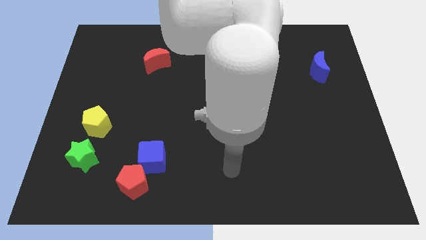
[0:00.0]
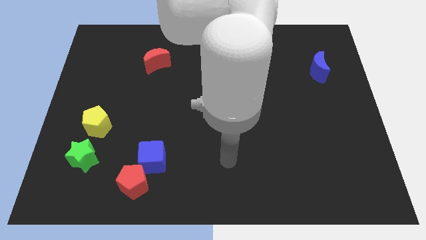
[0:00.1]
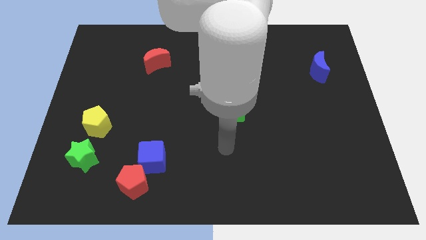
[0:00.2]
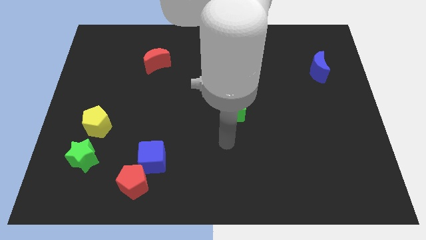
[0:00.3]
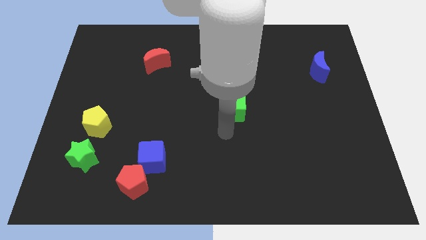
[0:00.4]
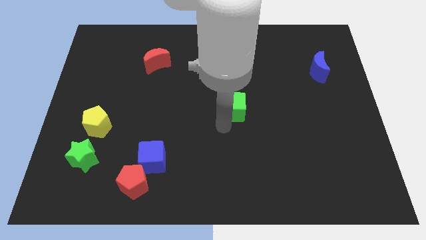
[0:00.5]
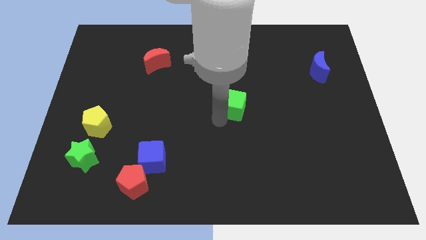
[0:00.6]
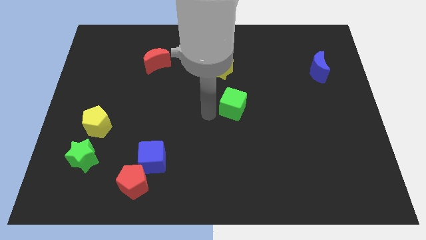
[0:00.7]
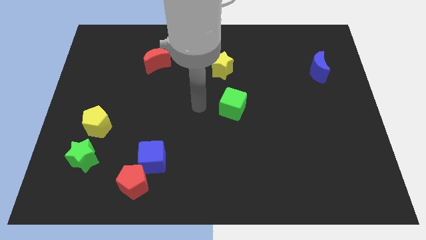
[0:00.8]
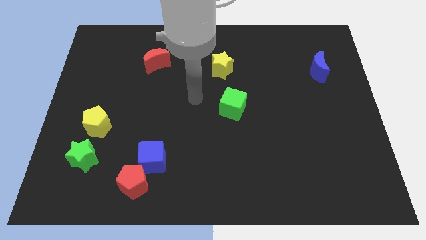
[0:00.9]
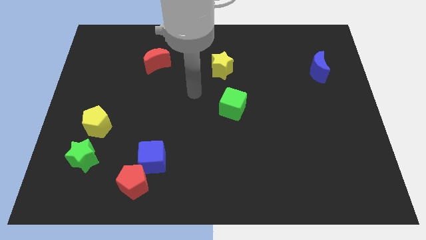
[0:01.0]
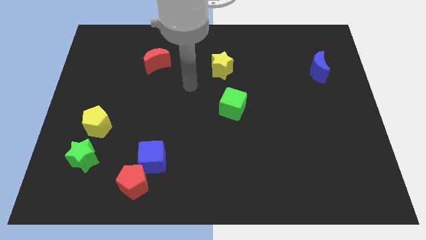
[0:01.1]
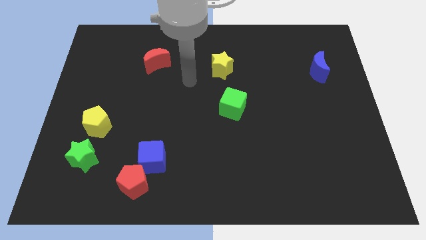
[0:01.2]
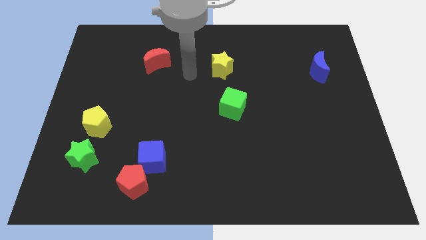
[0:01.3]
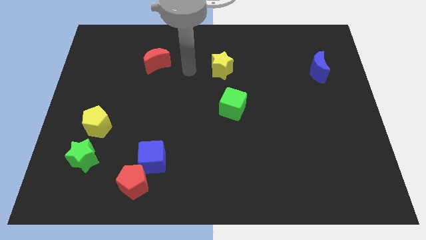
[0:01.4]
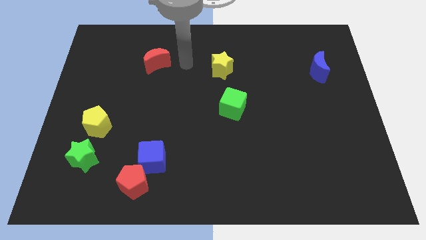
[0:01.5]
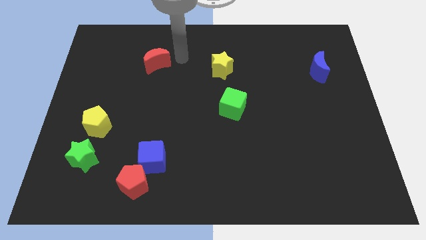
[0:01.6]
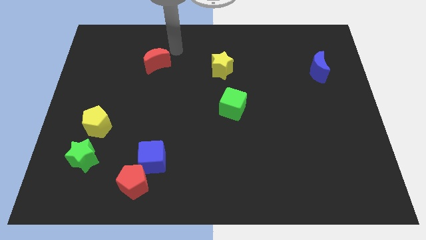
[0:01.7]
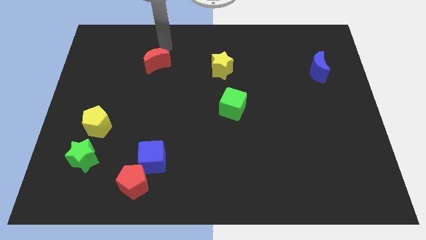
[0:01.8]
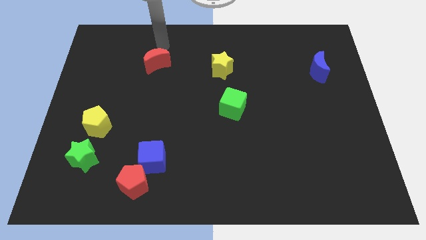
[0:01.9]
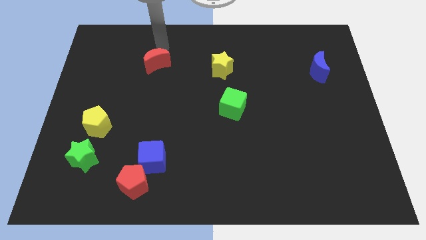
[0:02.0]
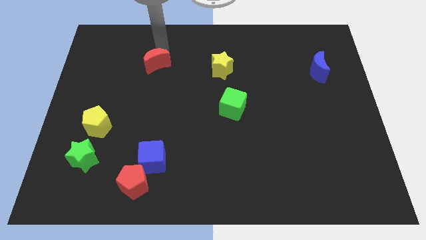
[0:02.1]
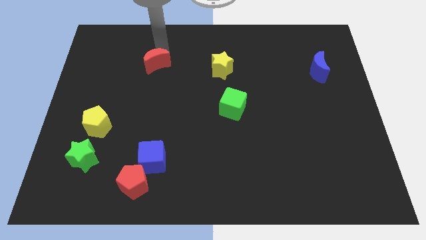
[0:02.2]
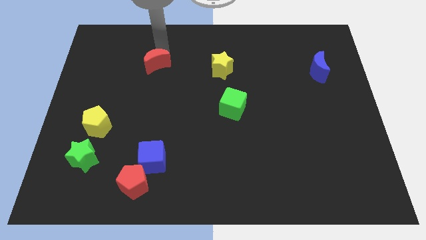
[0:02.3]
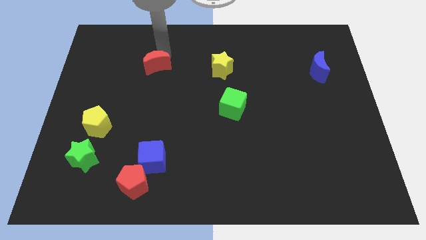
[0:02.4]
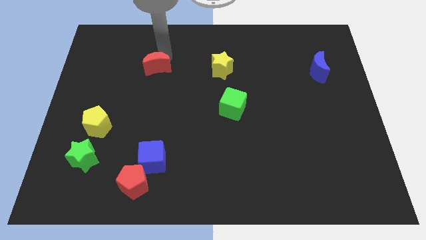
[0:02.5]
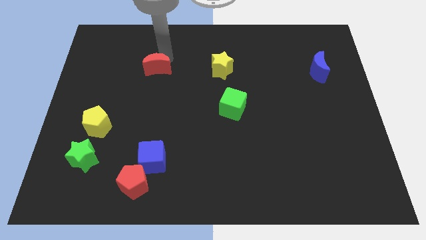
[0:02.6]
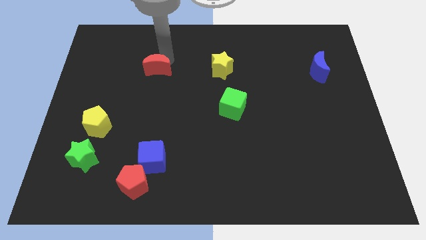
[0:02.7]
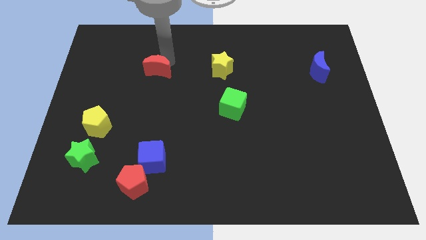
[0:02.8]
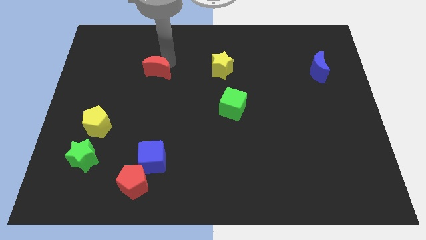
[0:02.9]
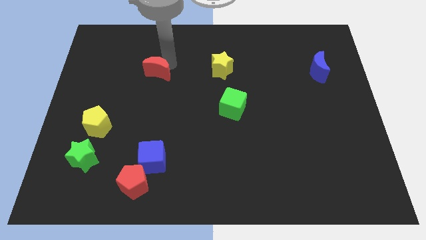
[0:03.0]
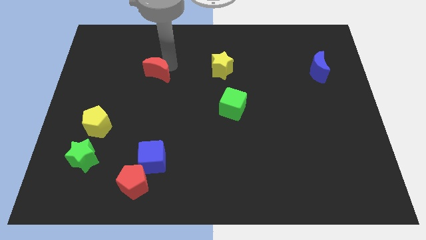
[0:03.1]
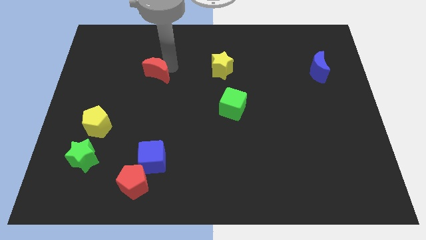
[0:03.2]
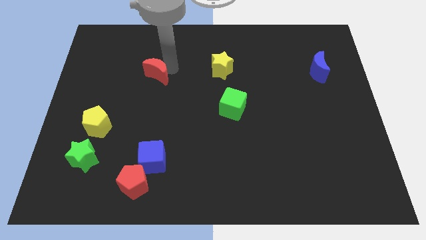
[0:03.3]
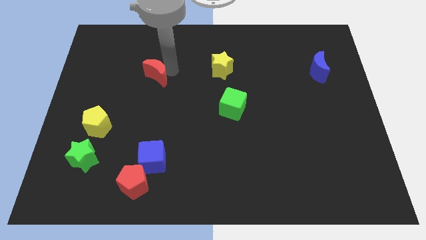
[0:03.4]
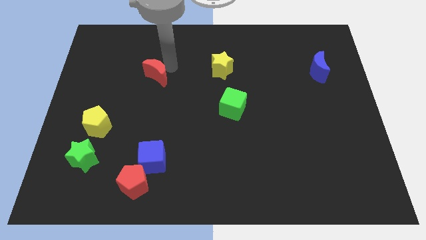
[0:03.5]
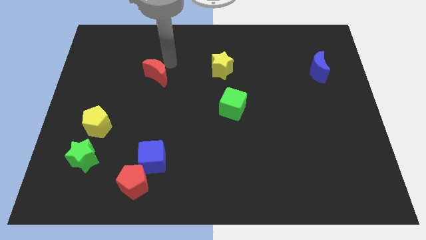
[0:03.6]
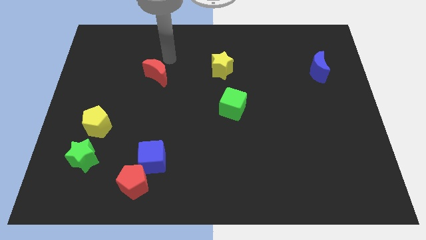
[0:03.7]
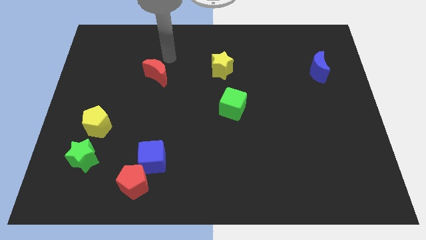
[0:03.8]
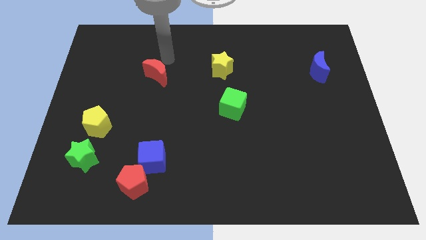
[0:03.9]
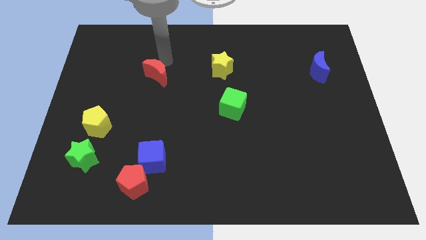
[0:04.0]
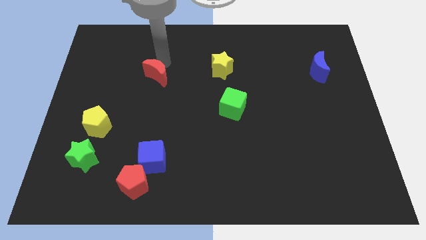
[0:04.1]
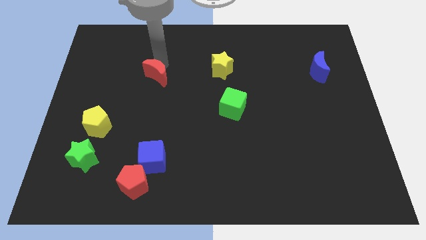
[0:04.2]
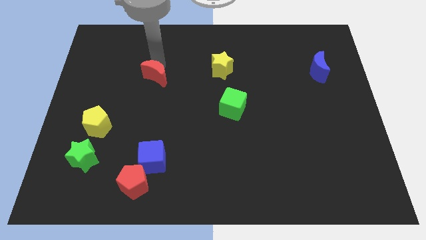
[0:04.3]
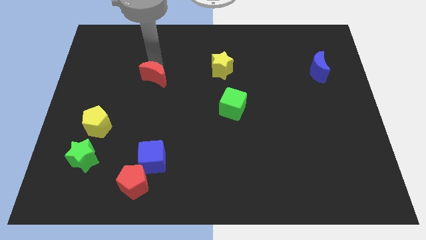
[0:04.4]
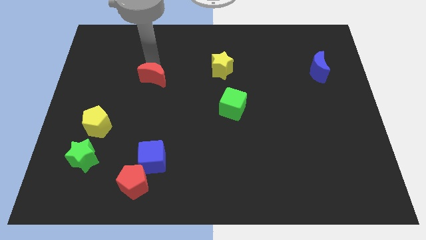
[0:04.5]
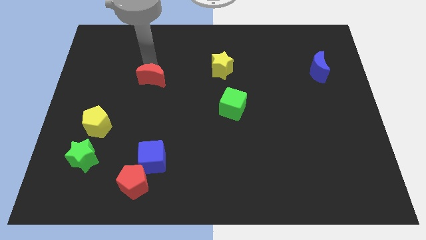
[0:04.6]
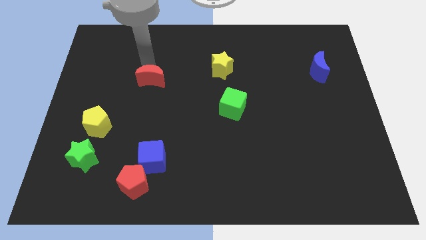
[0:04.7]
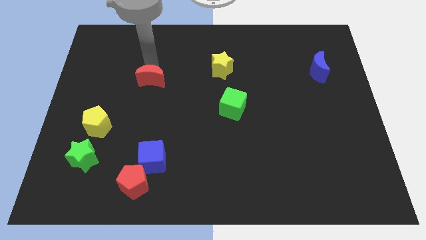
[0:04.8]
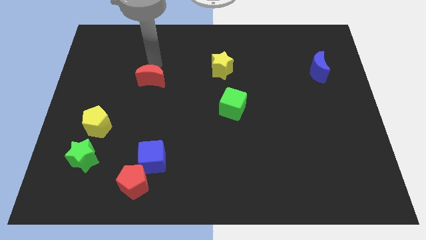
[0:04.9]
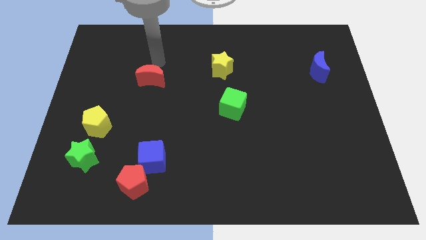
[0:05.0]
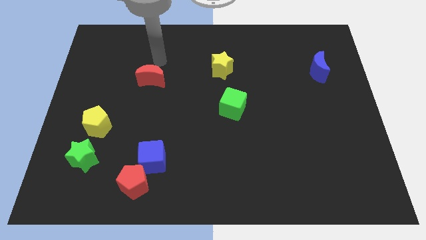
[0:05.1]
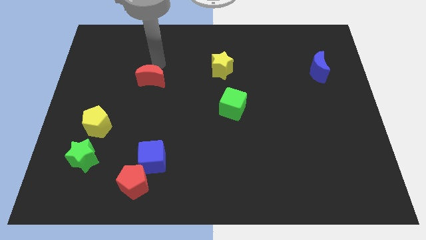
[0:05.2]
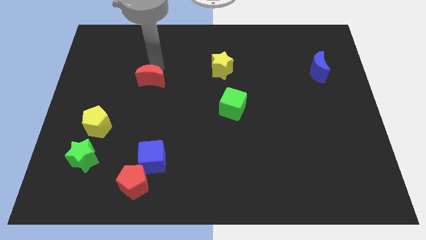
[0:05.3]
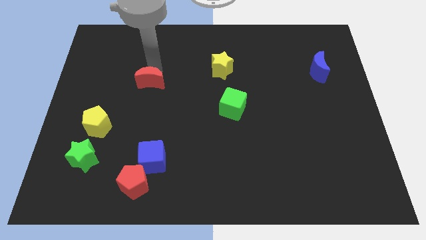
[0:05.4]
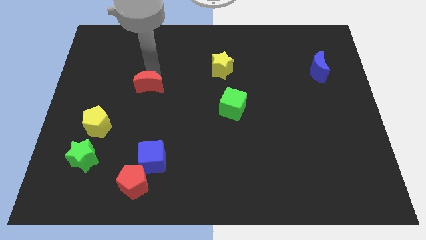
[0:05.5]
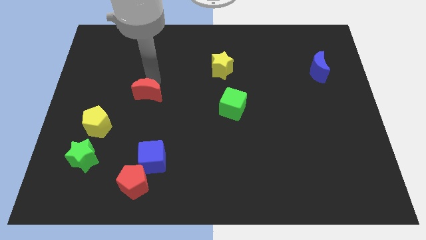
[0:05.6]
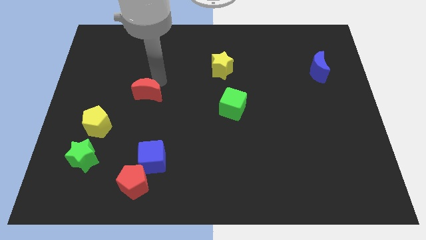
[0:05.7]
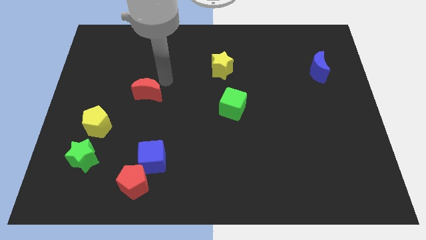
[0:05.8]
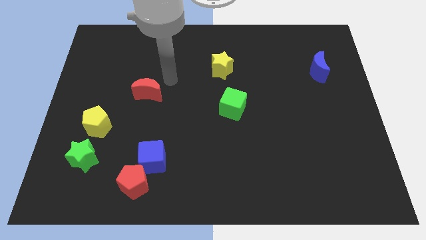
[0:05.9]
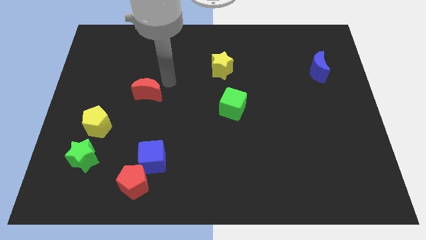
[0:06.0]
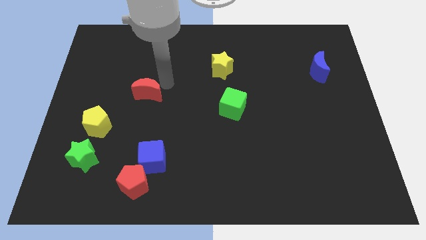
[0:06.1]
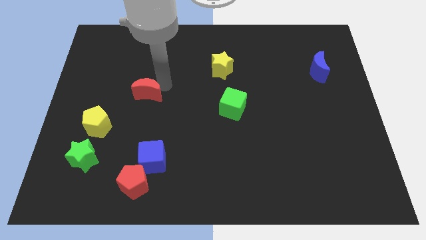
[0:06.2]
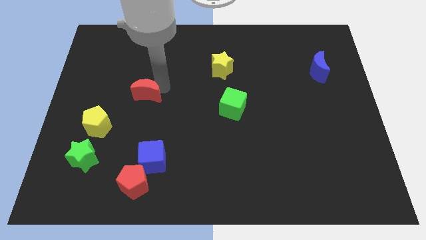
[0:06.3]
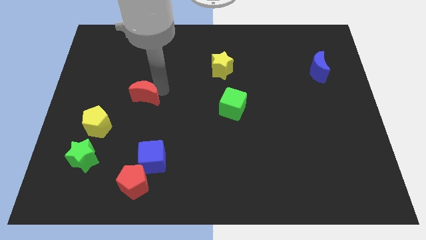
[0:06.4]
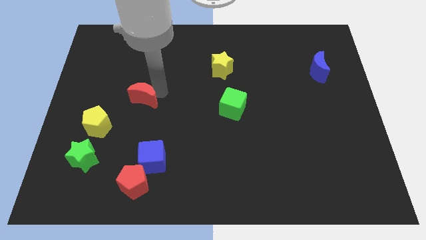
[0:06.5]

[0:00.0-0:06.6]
move the red moon to the top right of the yellow pentagon

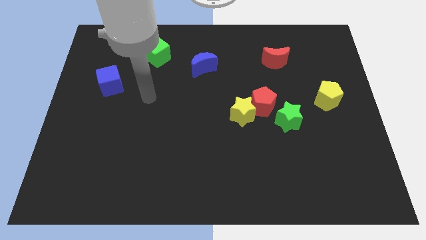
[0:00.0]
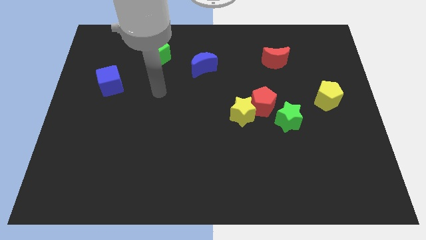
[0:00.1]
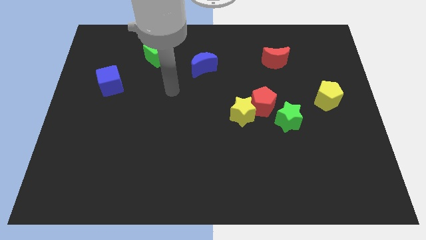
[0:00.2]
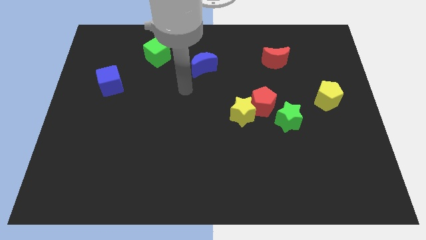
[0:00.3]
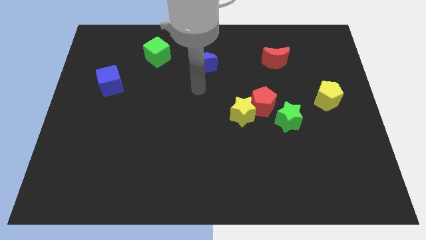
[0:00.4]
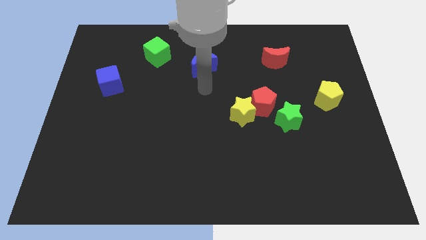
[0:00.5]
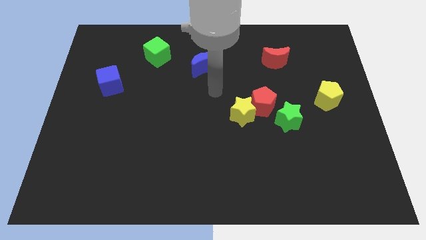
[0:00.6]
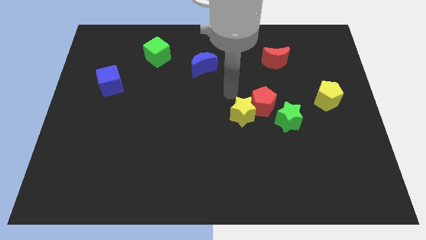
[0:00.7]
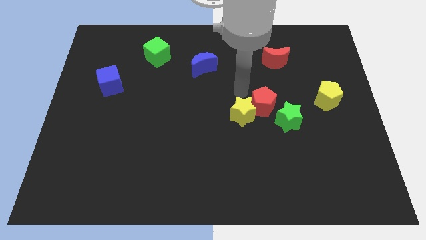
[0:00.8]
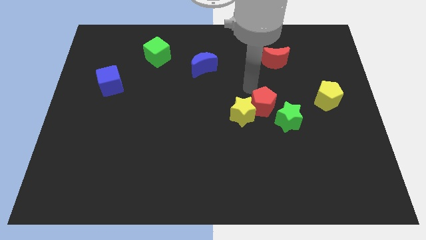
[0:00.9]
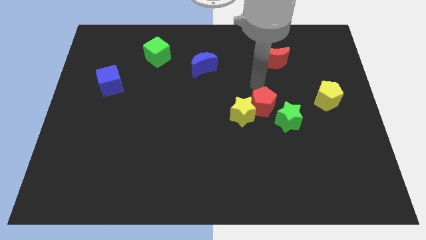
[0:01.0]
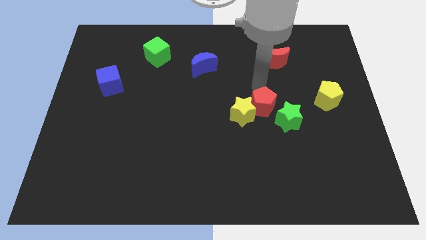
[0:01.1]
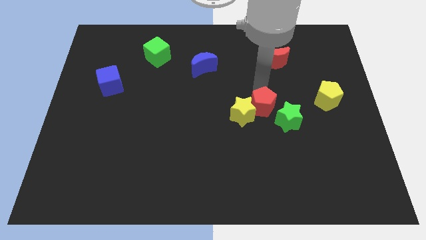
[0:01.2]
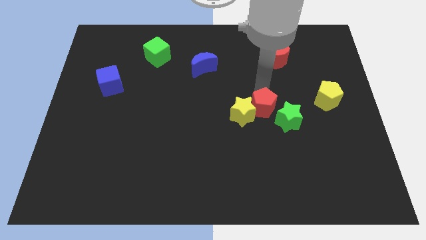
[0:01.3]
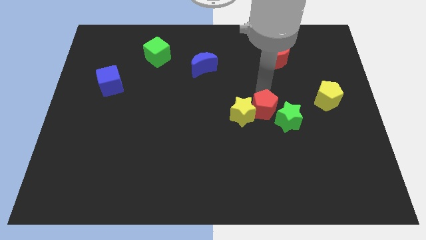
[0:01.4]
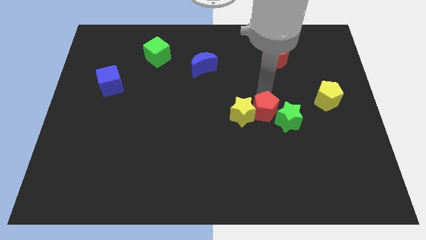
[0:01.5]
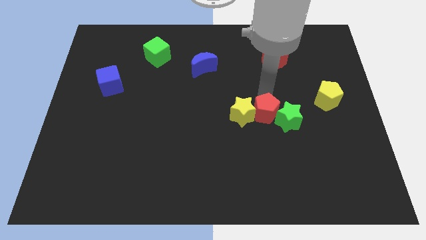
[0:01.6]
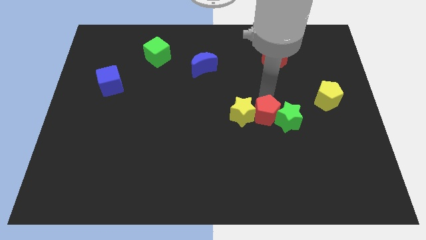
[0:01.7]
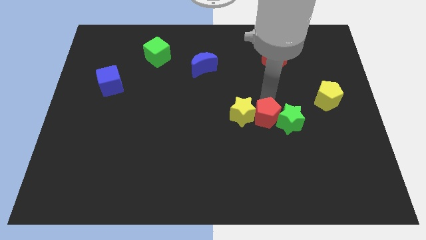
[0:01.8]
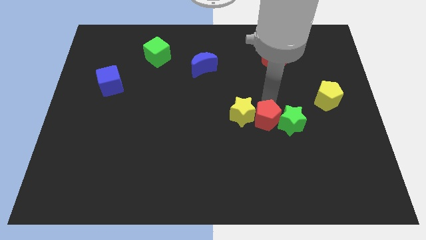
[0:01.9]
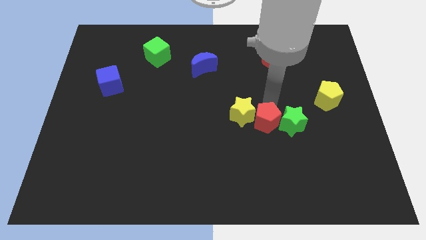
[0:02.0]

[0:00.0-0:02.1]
slide the red pentagon diagonally down and to the left of the green star
